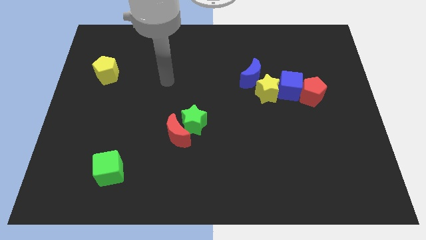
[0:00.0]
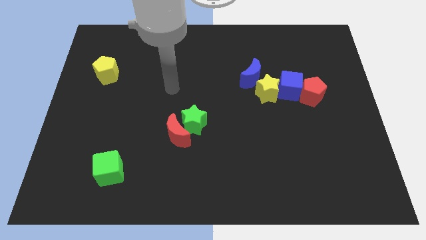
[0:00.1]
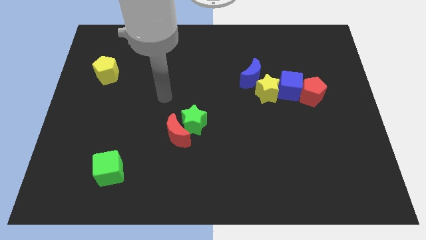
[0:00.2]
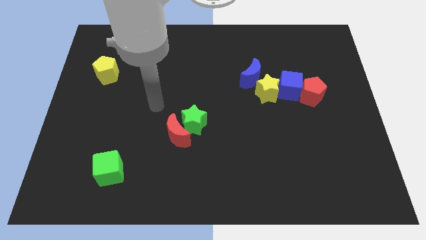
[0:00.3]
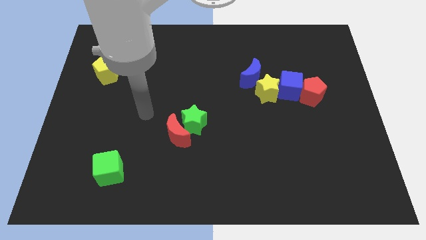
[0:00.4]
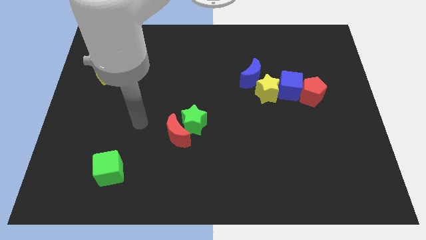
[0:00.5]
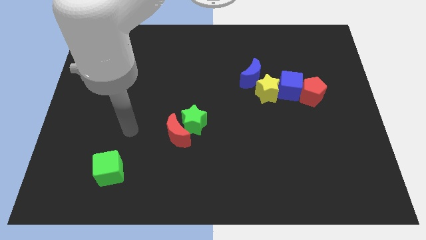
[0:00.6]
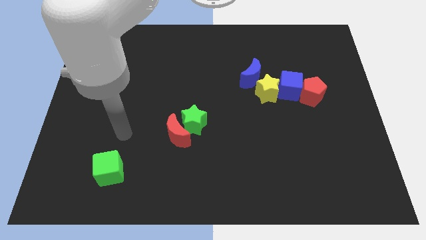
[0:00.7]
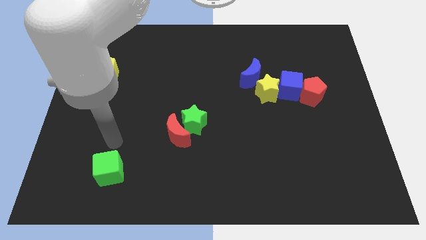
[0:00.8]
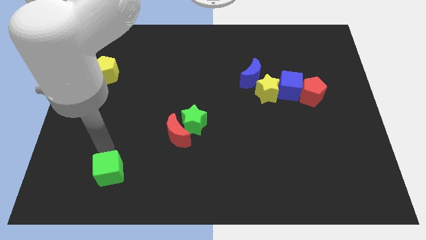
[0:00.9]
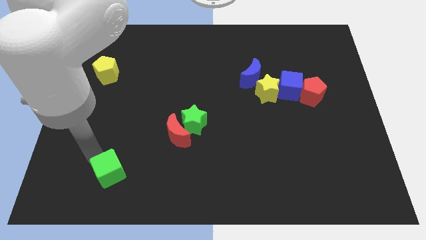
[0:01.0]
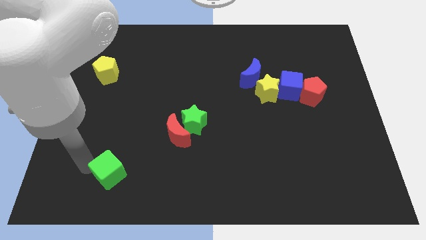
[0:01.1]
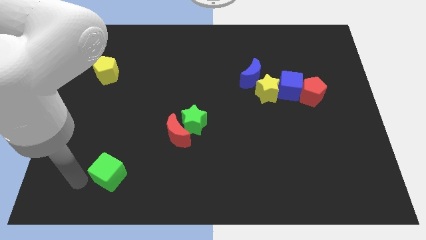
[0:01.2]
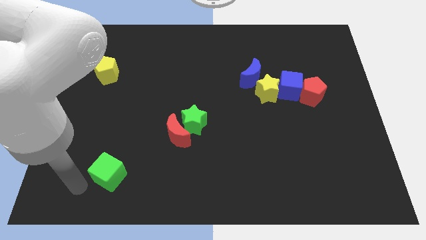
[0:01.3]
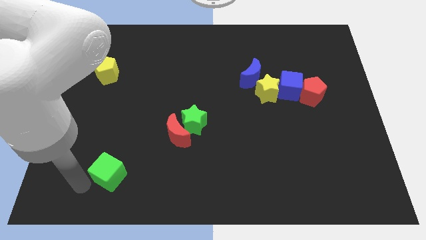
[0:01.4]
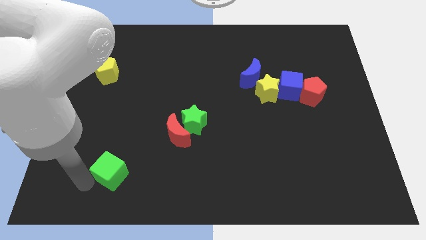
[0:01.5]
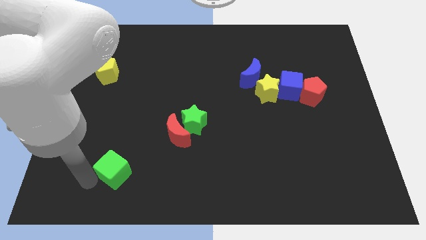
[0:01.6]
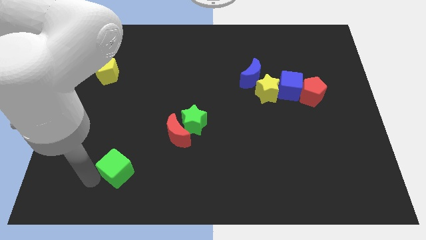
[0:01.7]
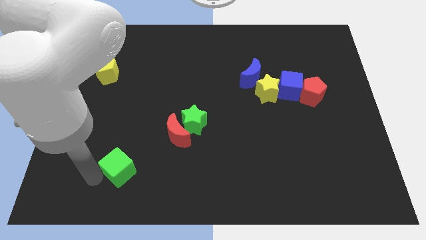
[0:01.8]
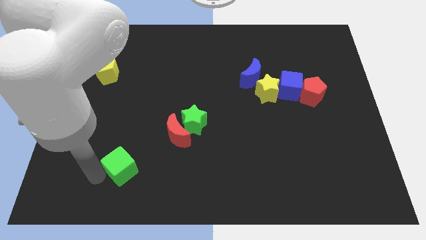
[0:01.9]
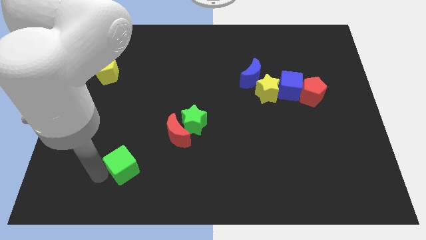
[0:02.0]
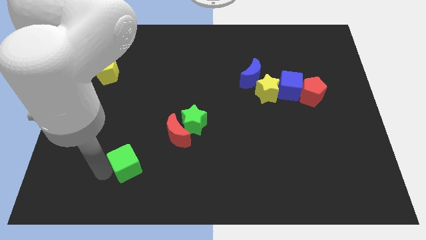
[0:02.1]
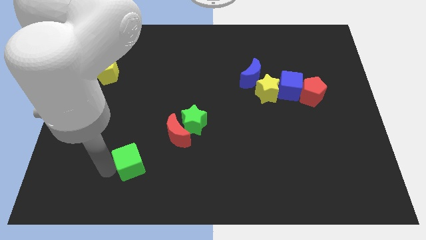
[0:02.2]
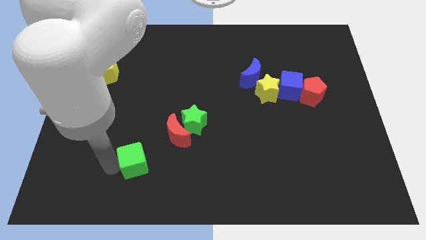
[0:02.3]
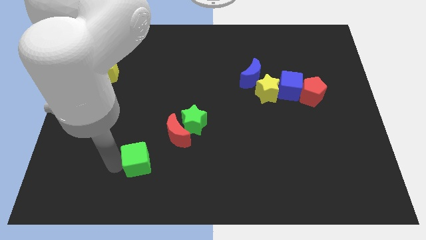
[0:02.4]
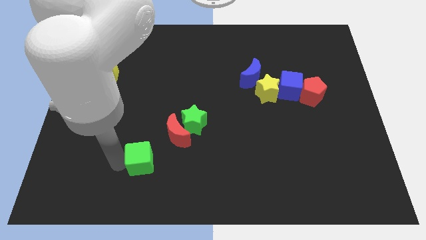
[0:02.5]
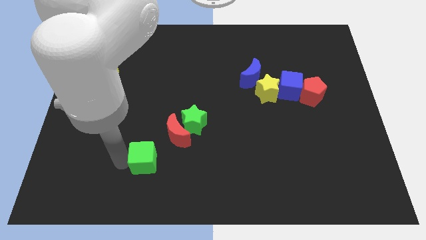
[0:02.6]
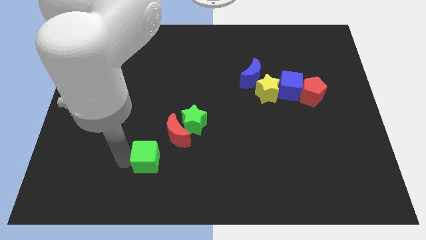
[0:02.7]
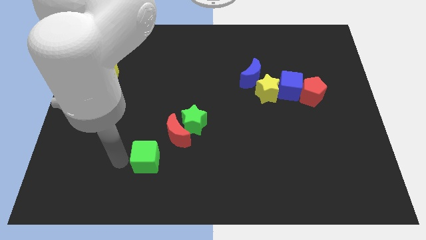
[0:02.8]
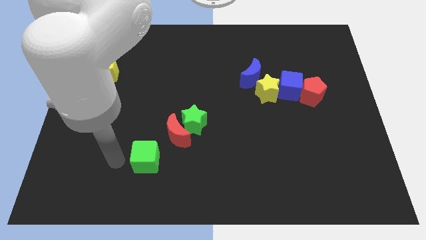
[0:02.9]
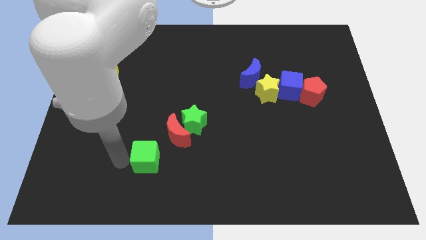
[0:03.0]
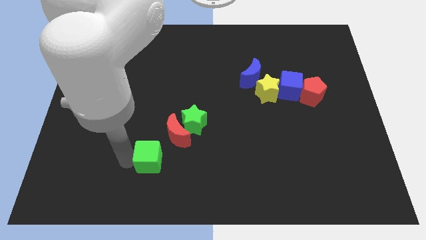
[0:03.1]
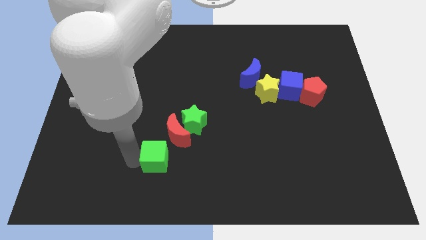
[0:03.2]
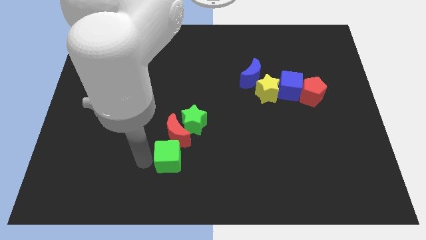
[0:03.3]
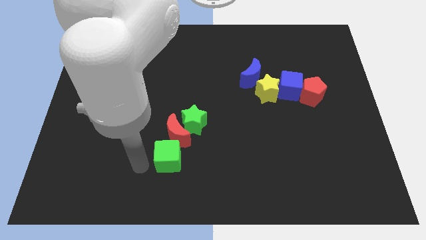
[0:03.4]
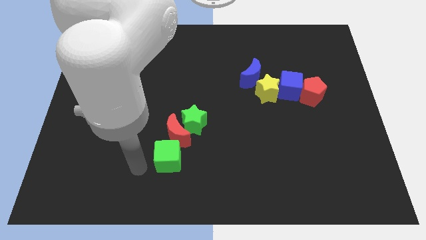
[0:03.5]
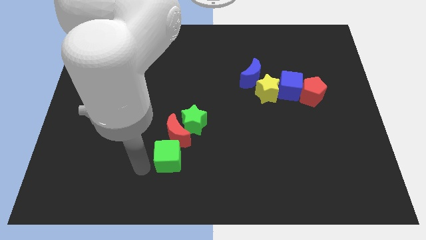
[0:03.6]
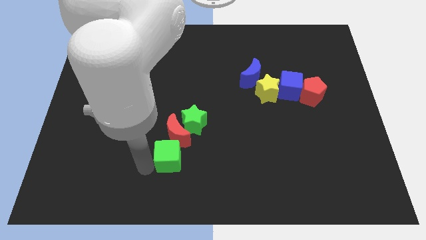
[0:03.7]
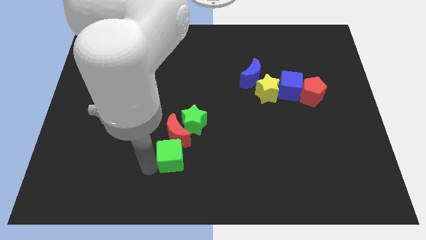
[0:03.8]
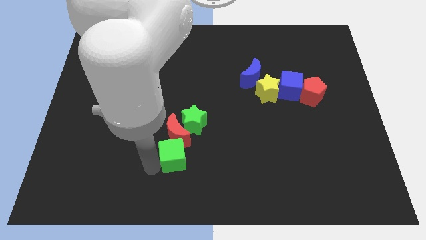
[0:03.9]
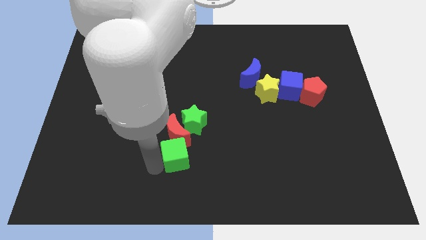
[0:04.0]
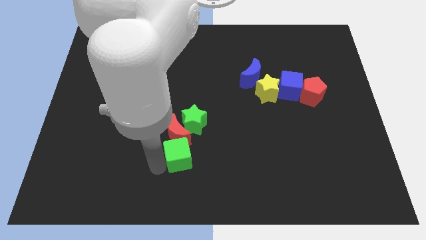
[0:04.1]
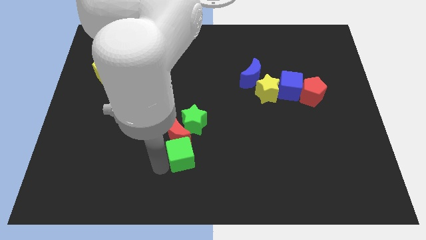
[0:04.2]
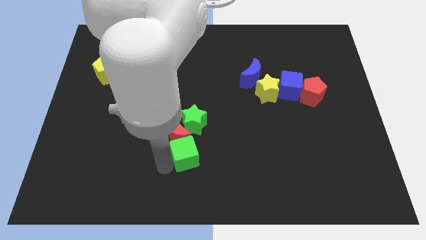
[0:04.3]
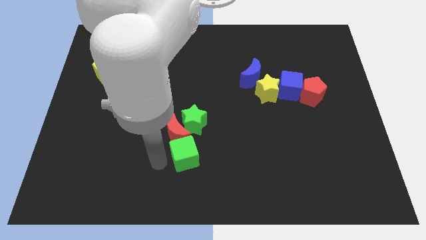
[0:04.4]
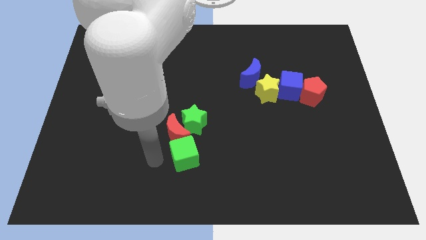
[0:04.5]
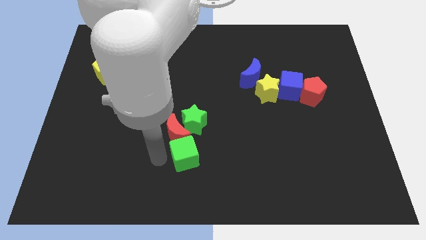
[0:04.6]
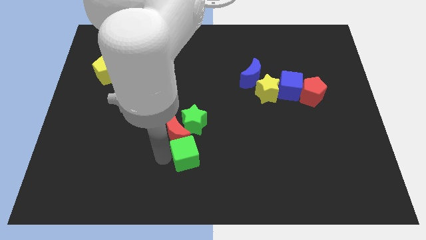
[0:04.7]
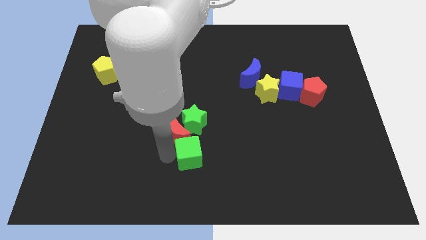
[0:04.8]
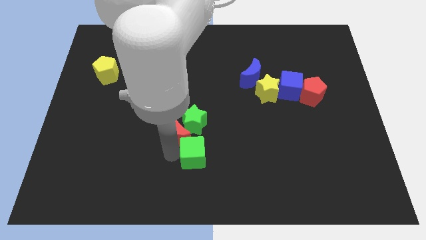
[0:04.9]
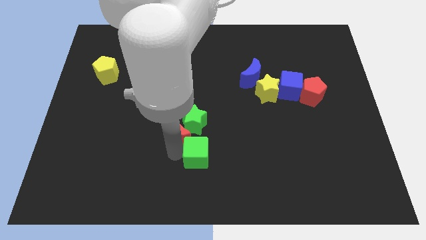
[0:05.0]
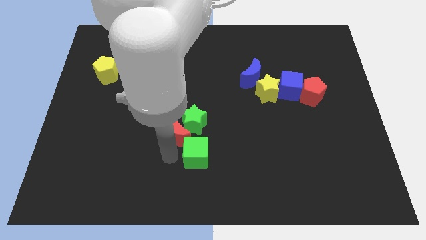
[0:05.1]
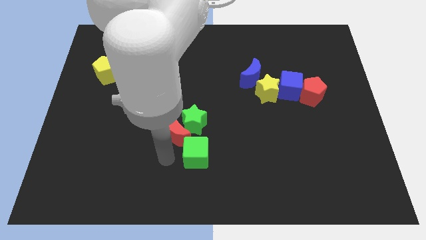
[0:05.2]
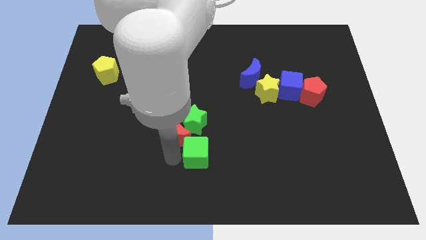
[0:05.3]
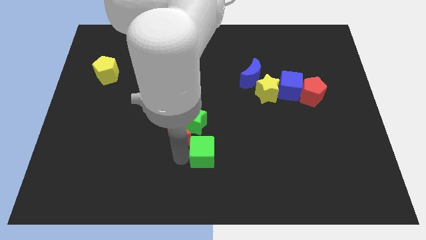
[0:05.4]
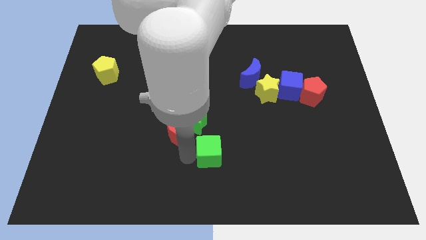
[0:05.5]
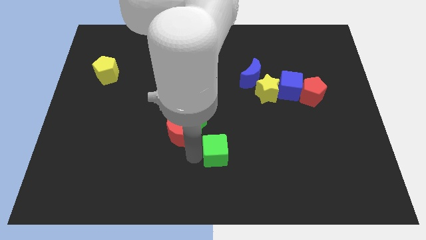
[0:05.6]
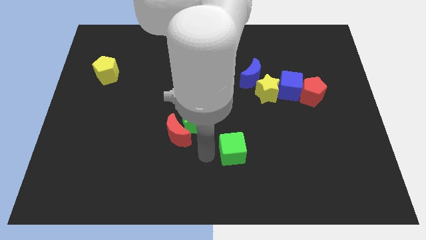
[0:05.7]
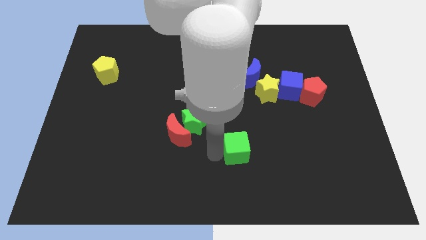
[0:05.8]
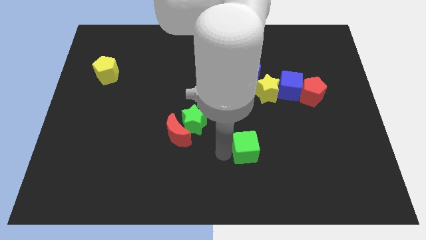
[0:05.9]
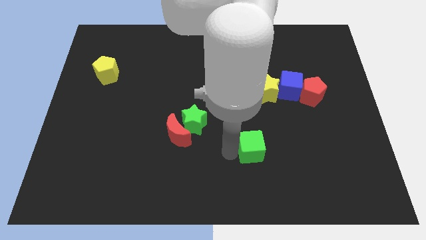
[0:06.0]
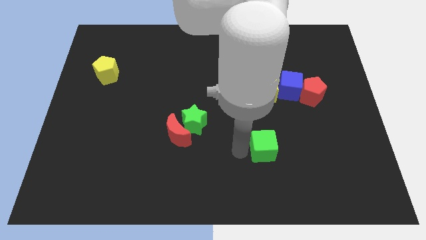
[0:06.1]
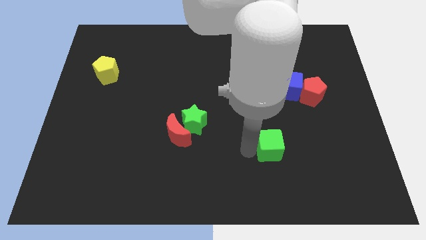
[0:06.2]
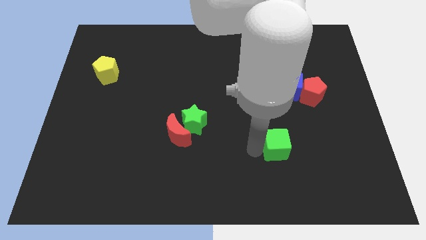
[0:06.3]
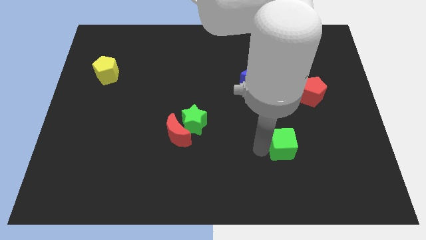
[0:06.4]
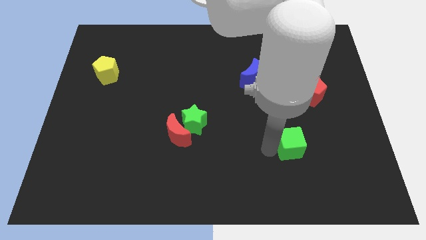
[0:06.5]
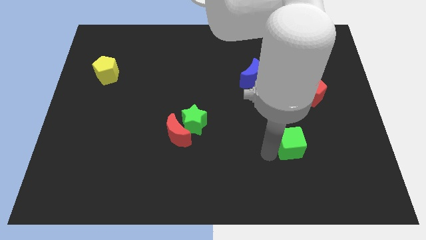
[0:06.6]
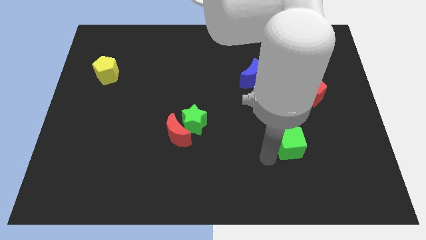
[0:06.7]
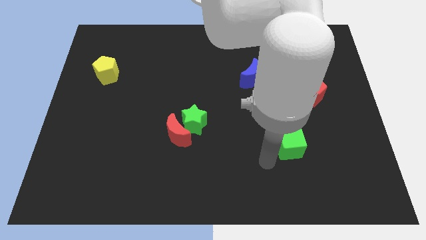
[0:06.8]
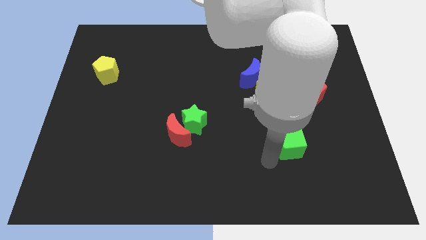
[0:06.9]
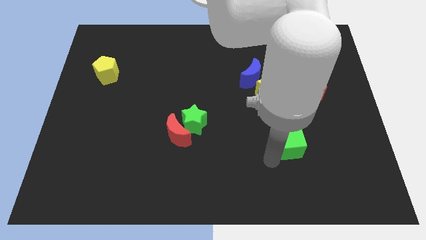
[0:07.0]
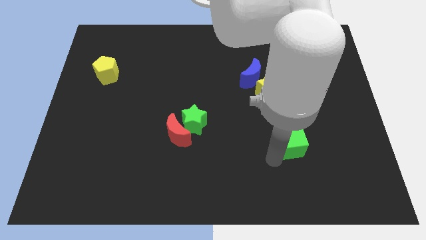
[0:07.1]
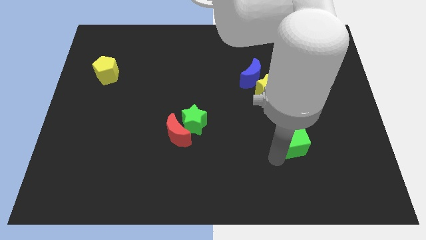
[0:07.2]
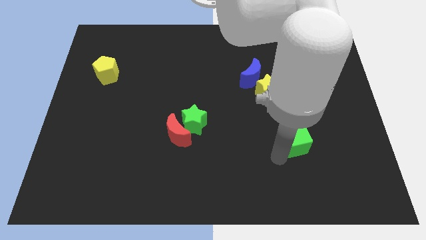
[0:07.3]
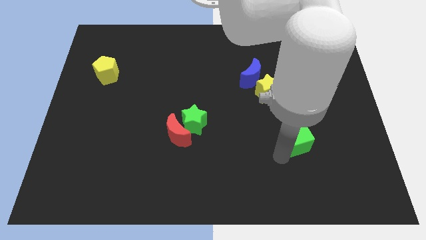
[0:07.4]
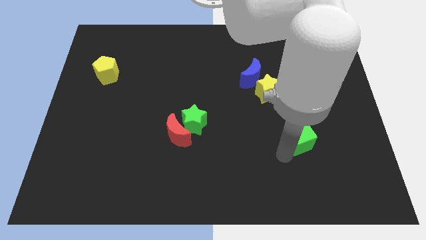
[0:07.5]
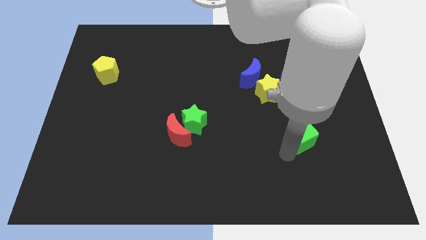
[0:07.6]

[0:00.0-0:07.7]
put the green cube to the bottom of the red pentagon
